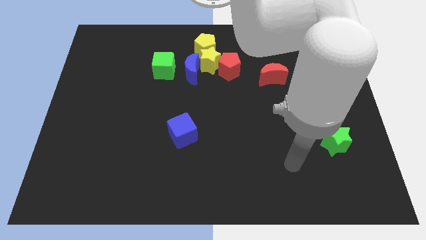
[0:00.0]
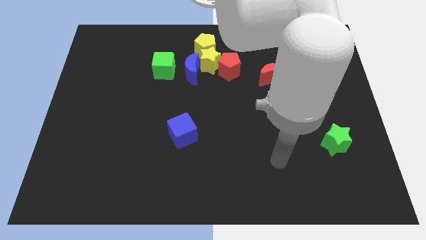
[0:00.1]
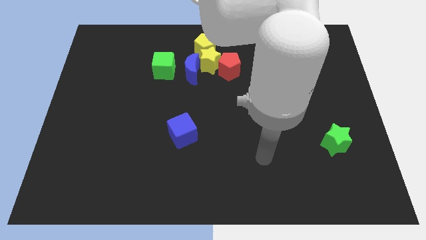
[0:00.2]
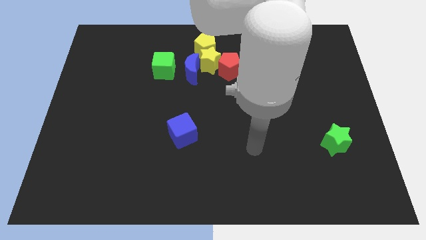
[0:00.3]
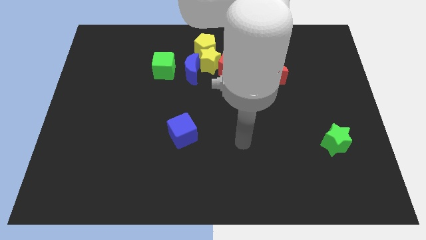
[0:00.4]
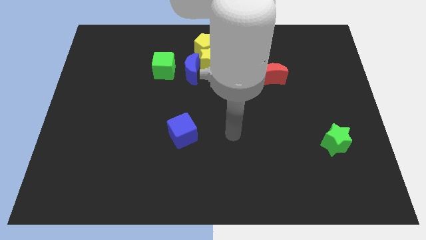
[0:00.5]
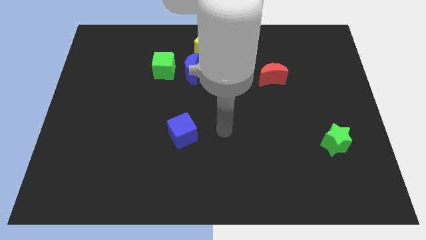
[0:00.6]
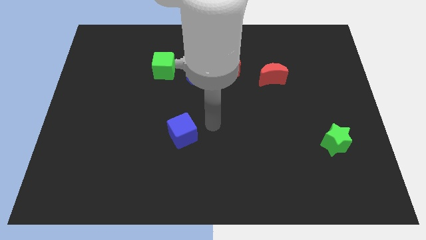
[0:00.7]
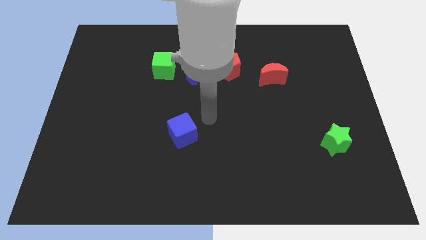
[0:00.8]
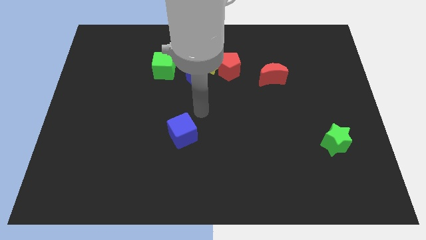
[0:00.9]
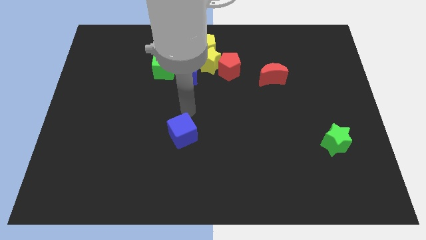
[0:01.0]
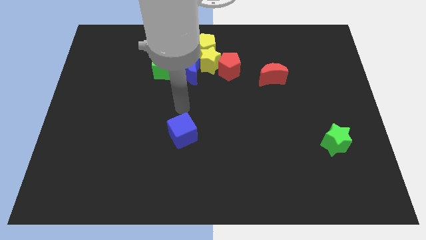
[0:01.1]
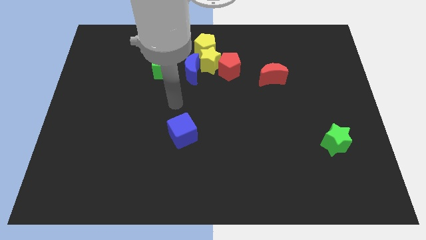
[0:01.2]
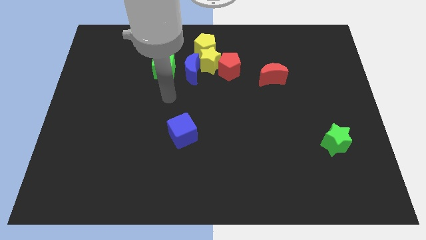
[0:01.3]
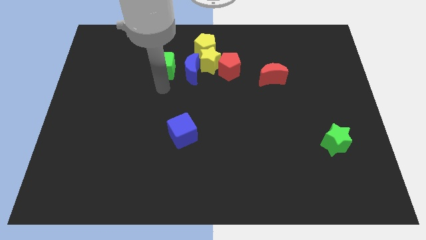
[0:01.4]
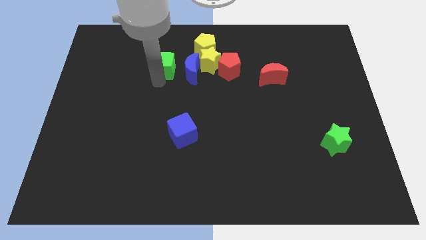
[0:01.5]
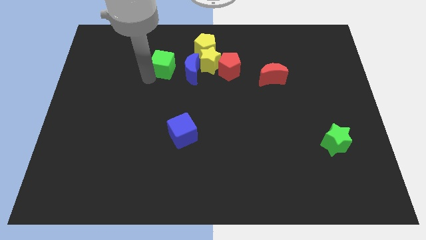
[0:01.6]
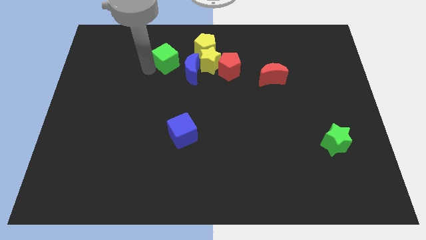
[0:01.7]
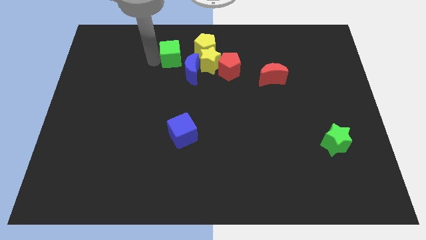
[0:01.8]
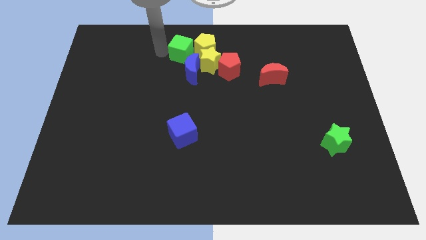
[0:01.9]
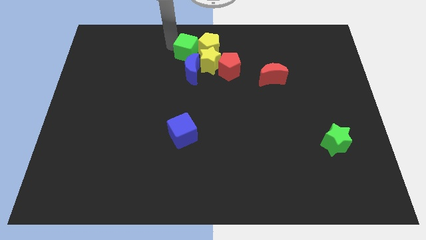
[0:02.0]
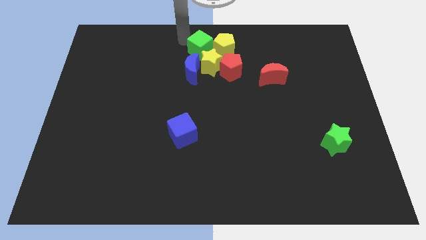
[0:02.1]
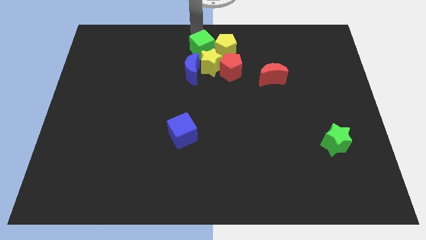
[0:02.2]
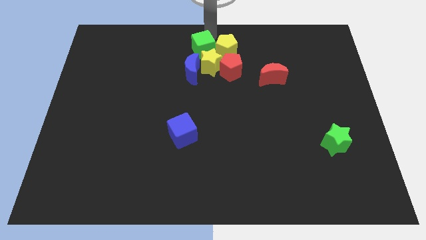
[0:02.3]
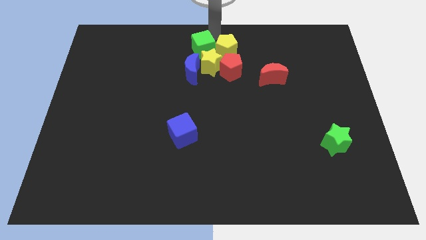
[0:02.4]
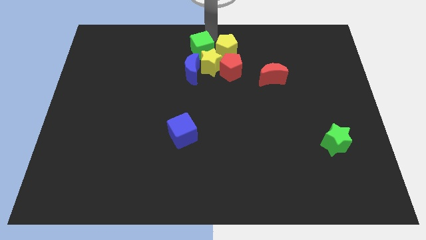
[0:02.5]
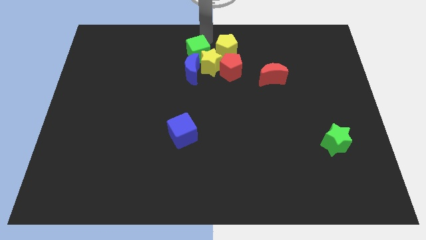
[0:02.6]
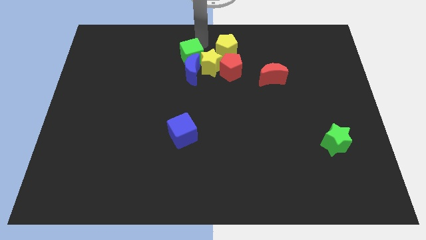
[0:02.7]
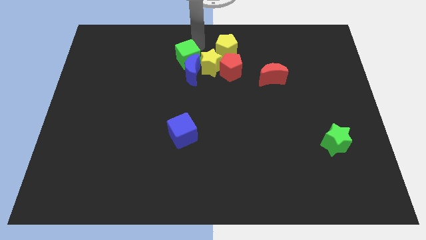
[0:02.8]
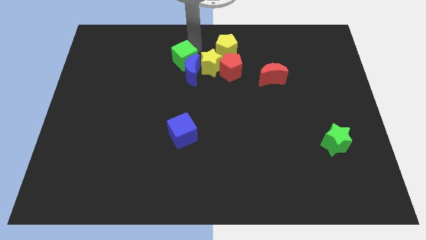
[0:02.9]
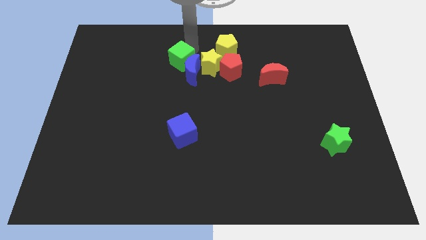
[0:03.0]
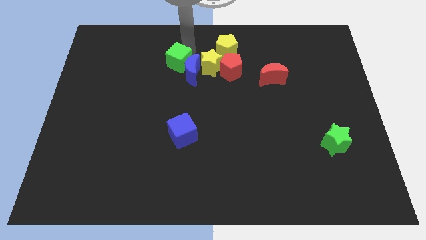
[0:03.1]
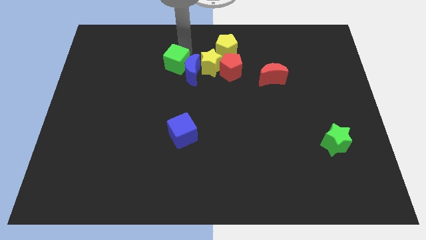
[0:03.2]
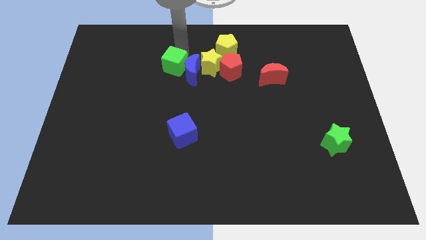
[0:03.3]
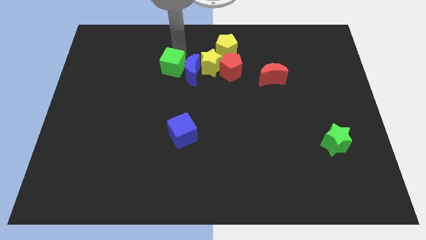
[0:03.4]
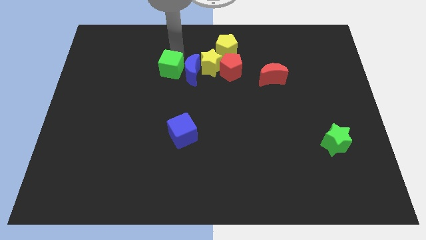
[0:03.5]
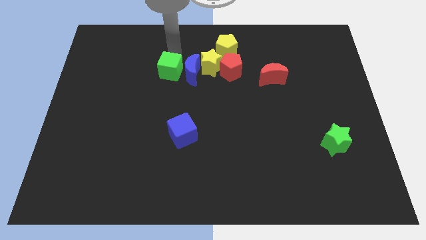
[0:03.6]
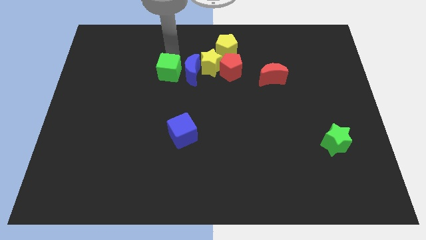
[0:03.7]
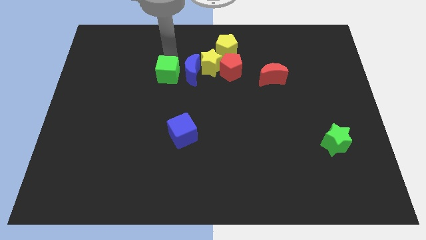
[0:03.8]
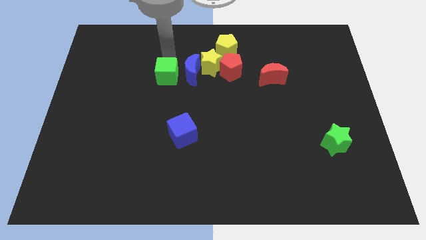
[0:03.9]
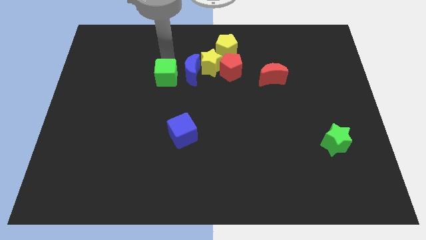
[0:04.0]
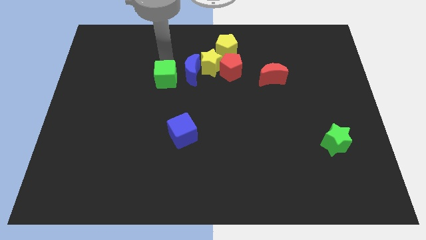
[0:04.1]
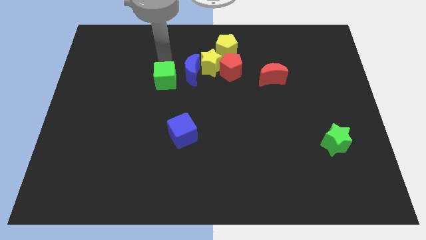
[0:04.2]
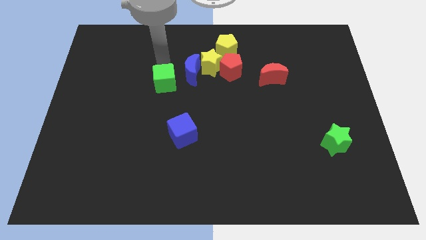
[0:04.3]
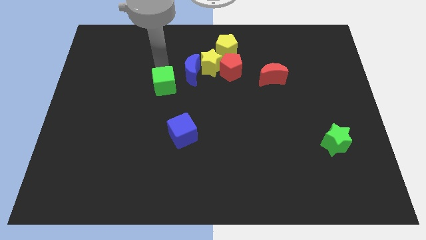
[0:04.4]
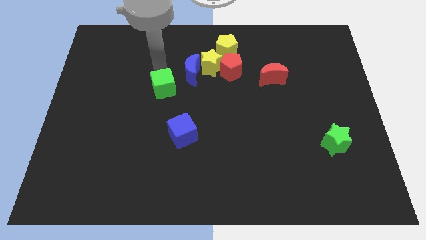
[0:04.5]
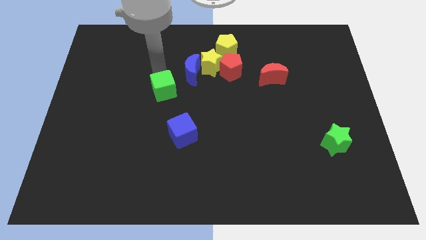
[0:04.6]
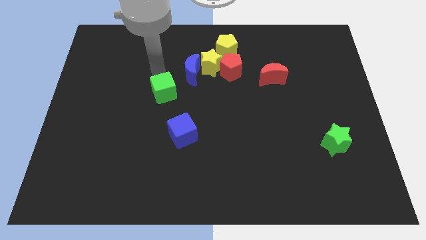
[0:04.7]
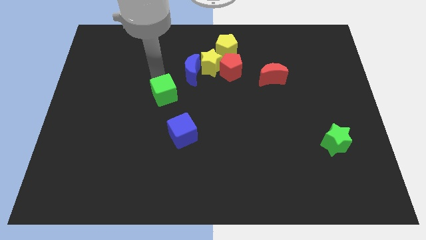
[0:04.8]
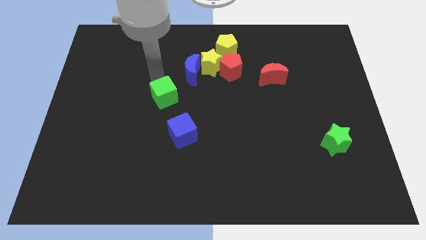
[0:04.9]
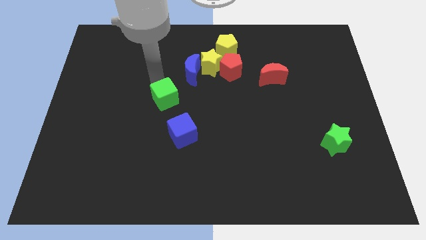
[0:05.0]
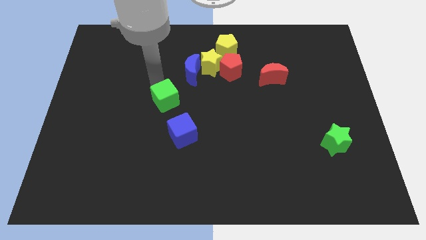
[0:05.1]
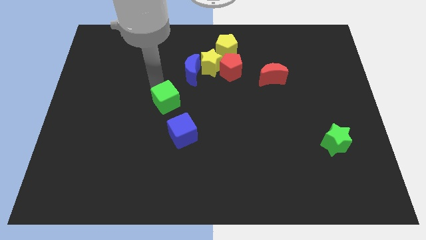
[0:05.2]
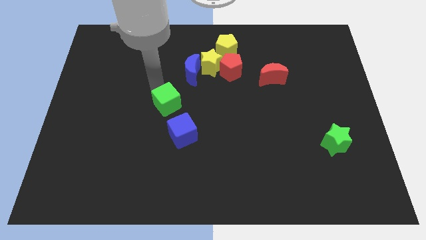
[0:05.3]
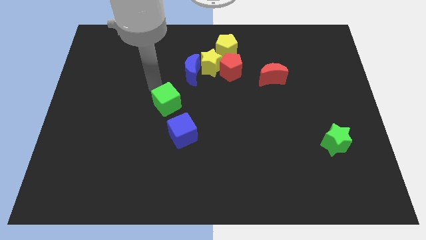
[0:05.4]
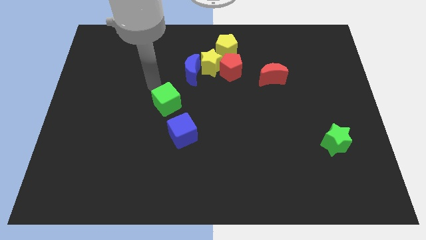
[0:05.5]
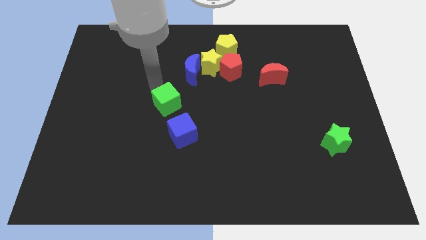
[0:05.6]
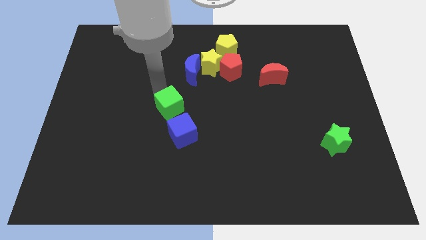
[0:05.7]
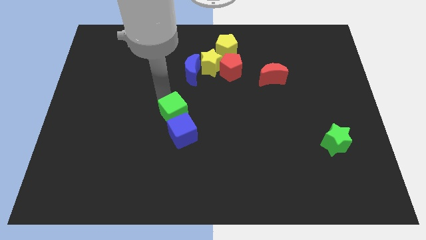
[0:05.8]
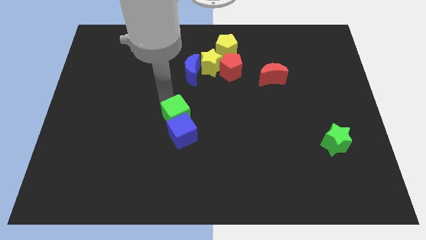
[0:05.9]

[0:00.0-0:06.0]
slide the green cube towards the blue cube
